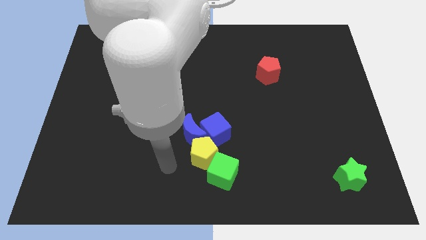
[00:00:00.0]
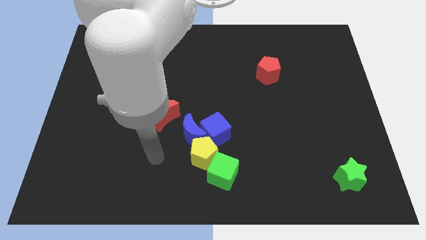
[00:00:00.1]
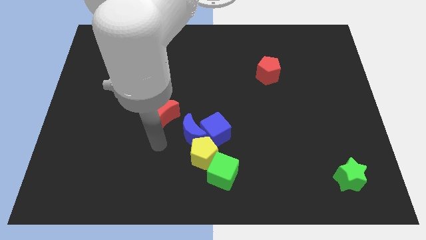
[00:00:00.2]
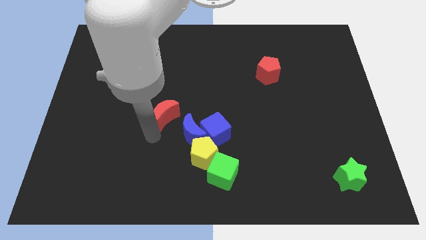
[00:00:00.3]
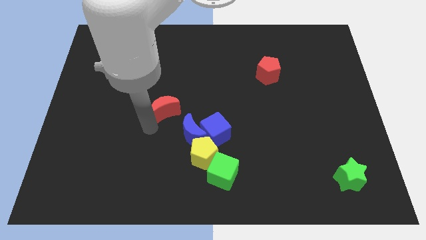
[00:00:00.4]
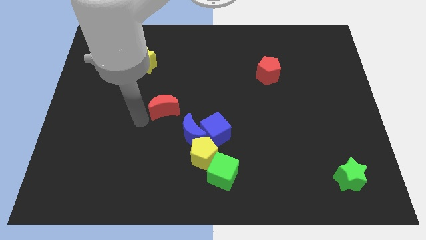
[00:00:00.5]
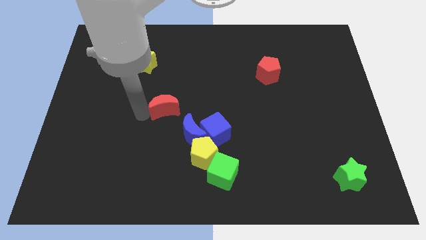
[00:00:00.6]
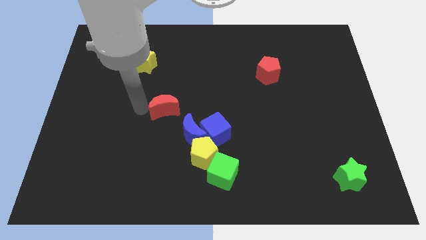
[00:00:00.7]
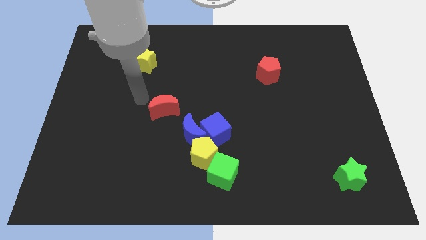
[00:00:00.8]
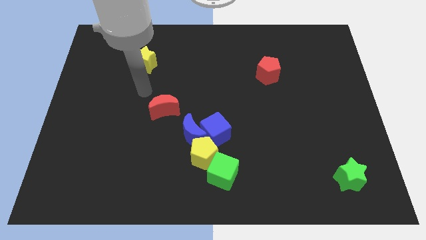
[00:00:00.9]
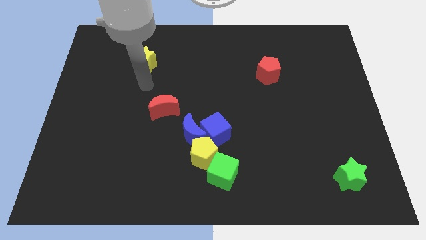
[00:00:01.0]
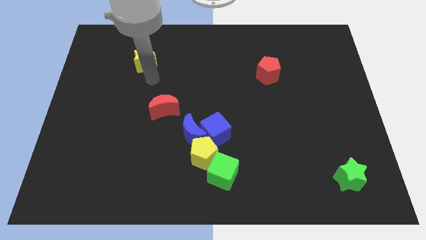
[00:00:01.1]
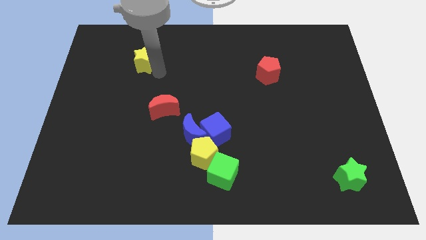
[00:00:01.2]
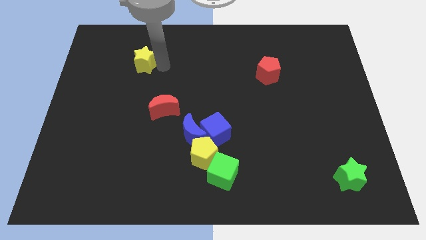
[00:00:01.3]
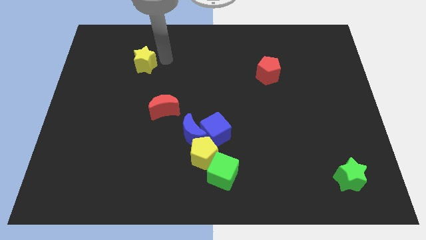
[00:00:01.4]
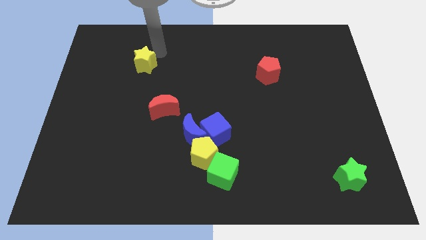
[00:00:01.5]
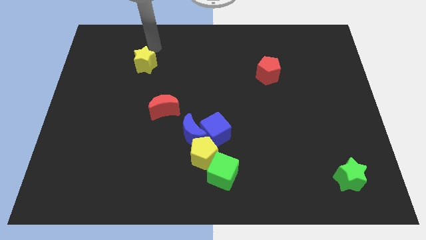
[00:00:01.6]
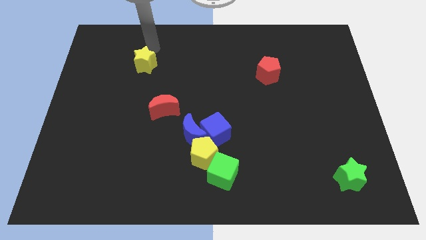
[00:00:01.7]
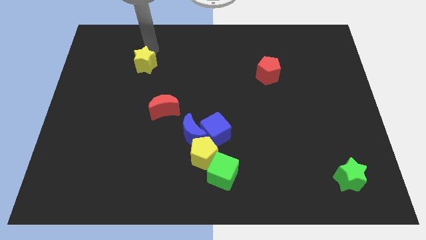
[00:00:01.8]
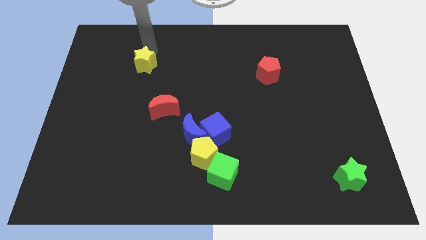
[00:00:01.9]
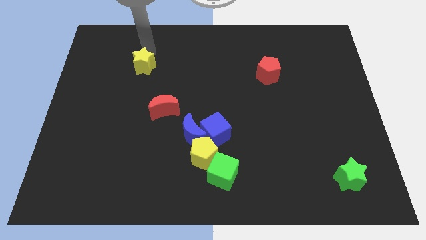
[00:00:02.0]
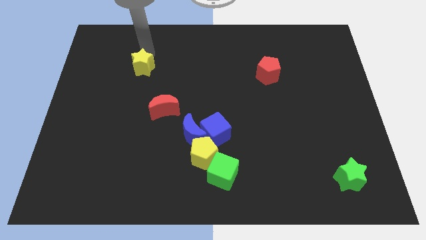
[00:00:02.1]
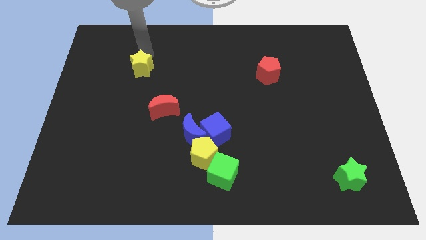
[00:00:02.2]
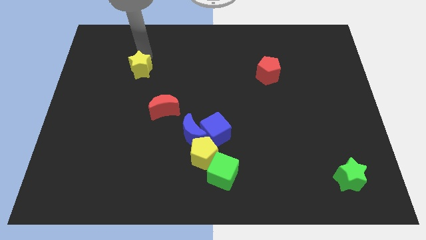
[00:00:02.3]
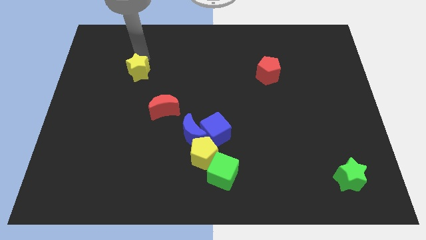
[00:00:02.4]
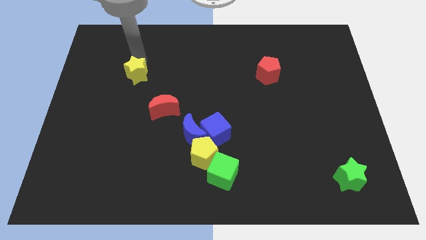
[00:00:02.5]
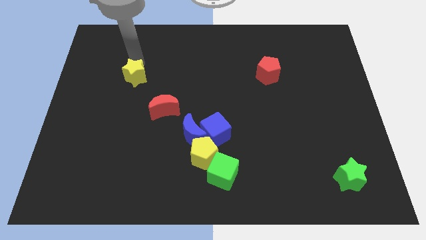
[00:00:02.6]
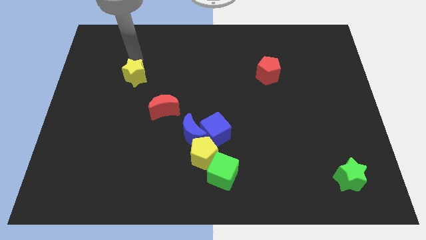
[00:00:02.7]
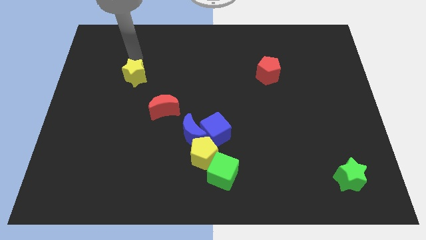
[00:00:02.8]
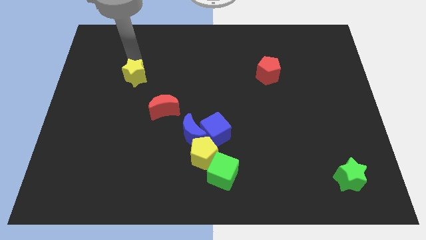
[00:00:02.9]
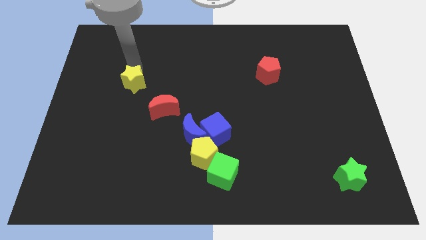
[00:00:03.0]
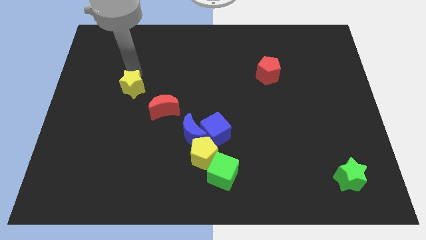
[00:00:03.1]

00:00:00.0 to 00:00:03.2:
slightly slide the yellow star downwards

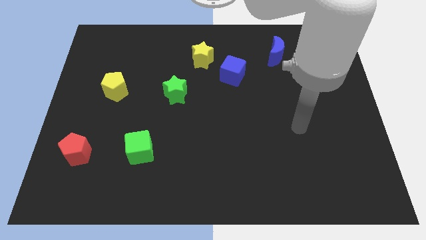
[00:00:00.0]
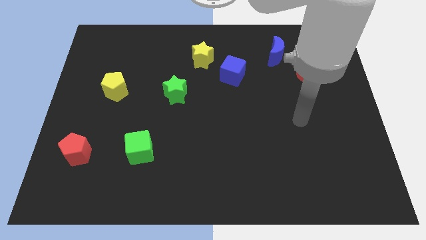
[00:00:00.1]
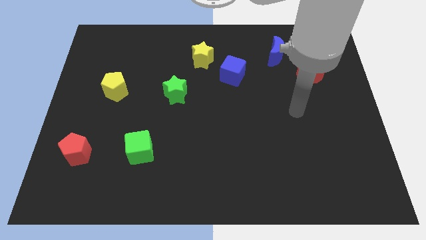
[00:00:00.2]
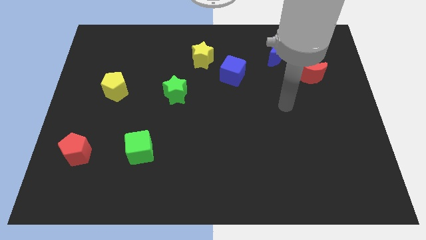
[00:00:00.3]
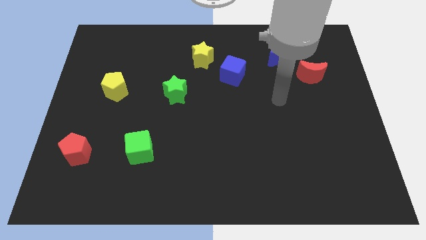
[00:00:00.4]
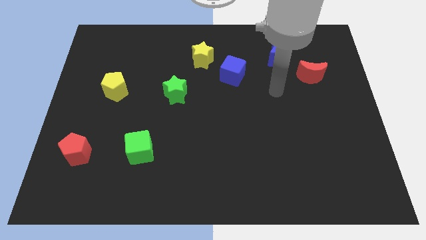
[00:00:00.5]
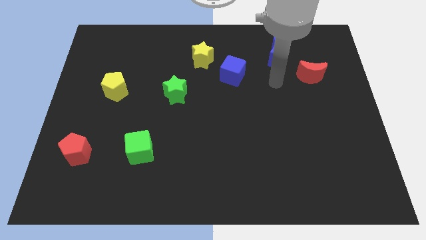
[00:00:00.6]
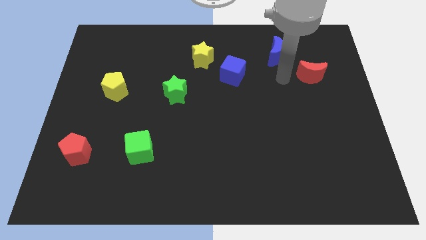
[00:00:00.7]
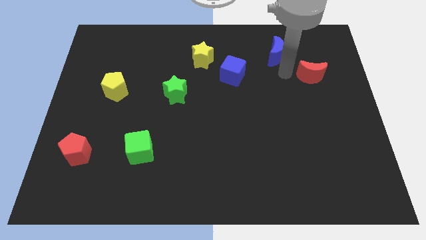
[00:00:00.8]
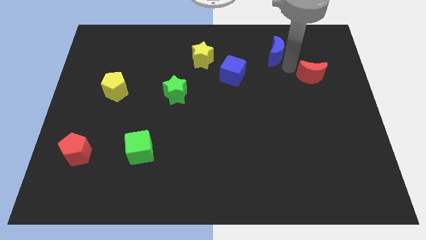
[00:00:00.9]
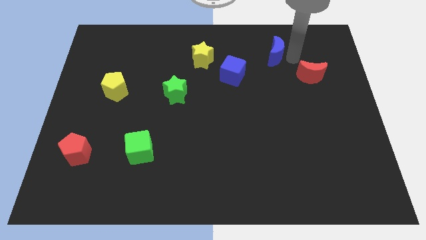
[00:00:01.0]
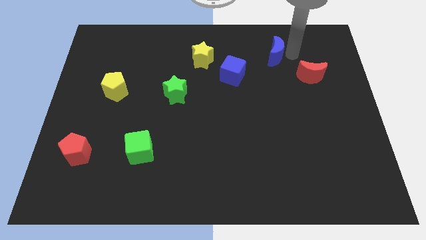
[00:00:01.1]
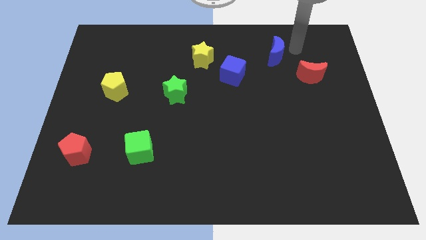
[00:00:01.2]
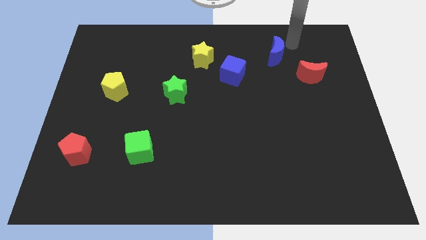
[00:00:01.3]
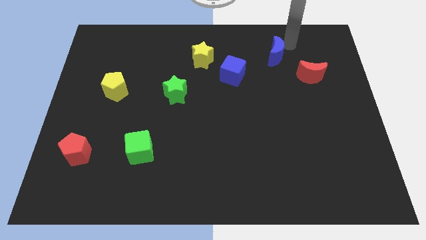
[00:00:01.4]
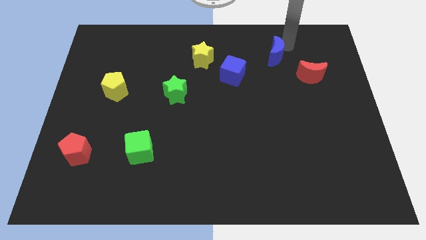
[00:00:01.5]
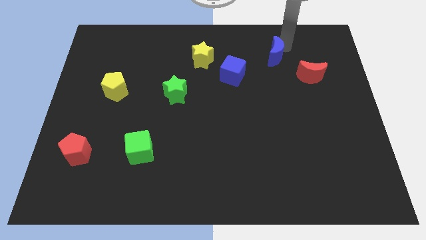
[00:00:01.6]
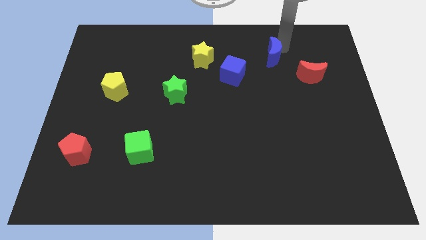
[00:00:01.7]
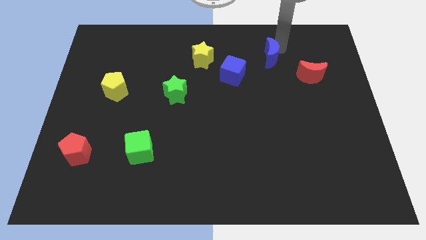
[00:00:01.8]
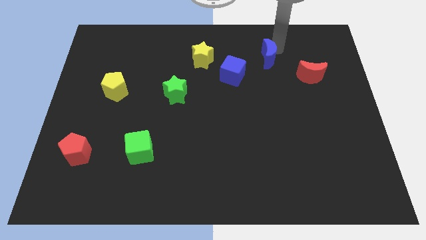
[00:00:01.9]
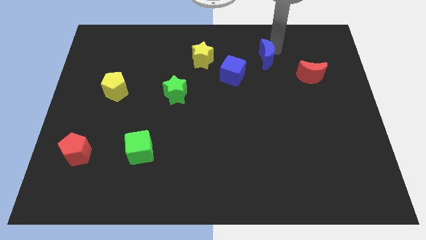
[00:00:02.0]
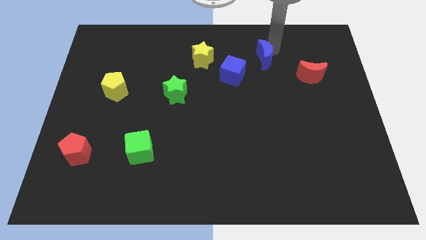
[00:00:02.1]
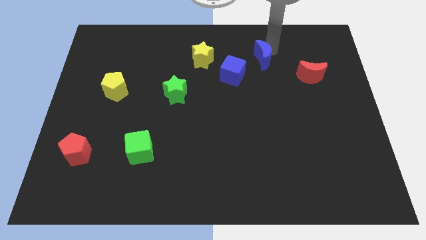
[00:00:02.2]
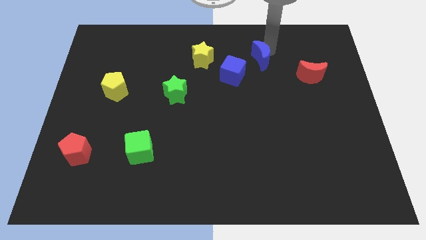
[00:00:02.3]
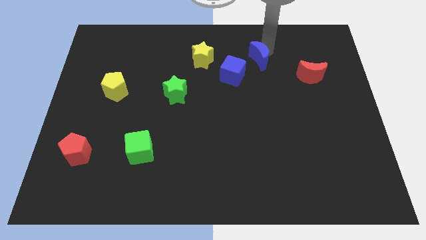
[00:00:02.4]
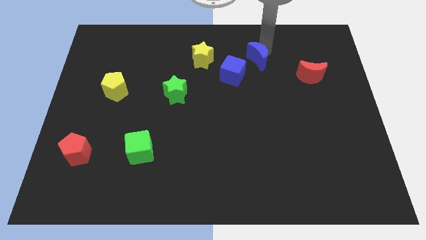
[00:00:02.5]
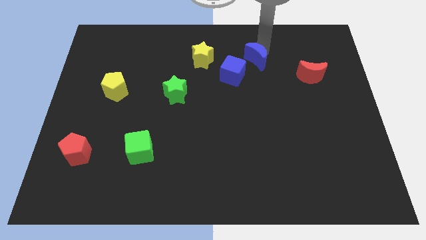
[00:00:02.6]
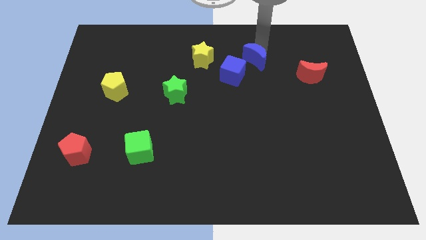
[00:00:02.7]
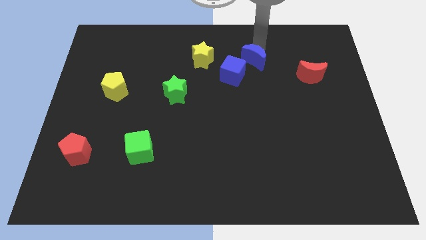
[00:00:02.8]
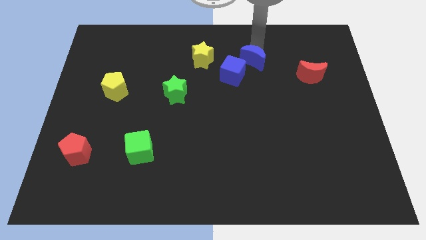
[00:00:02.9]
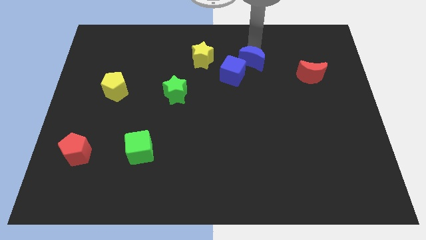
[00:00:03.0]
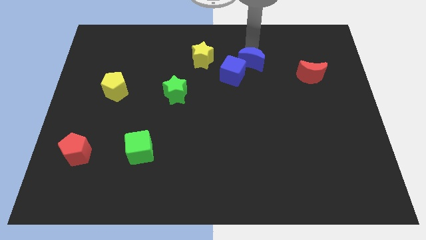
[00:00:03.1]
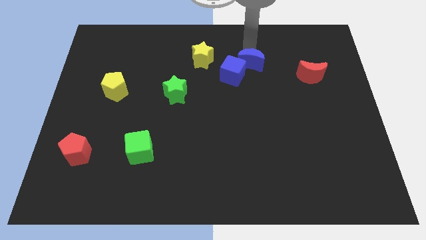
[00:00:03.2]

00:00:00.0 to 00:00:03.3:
slightly push the blue moon downwards and then left

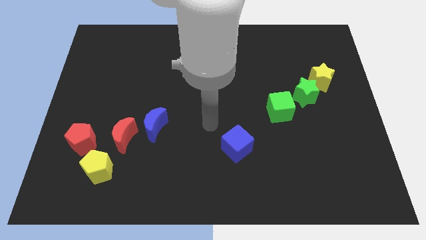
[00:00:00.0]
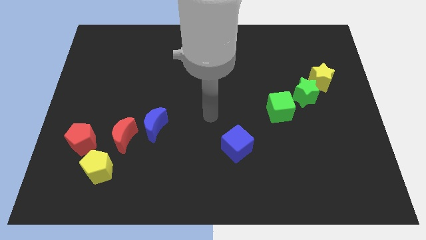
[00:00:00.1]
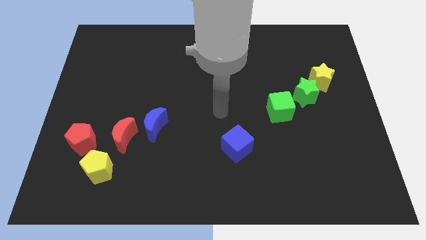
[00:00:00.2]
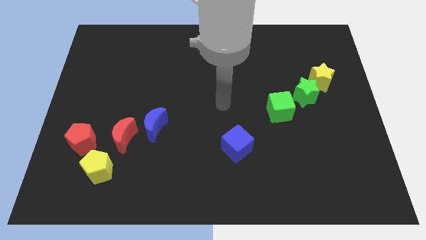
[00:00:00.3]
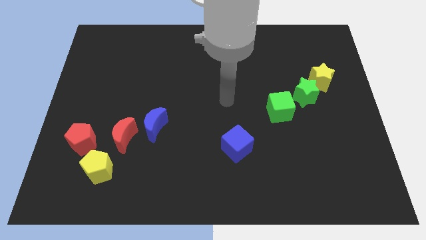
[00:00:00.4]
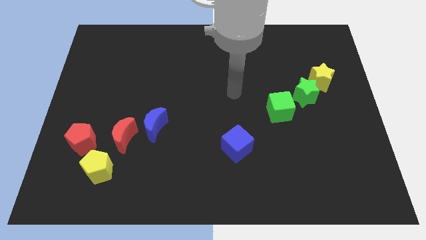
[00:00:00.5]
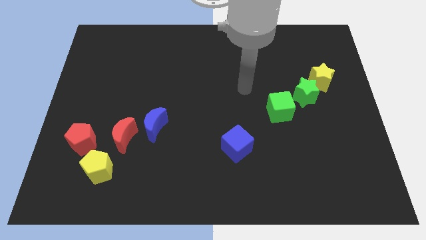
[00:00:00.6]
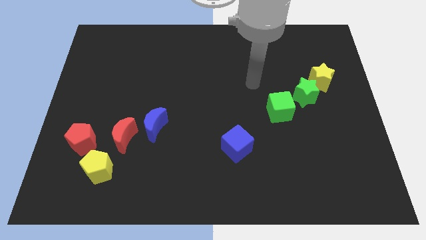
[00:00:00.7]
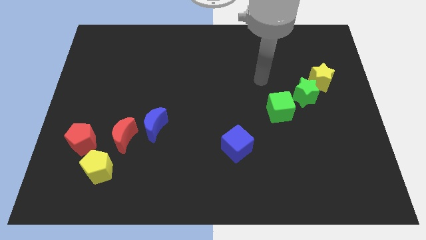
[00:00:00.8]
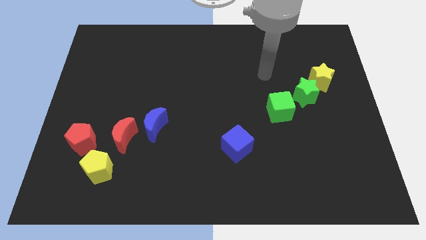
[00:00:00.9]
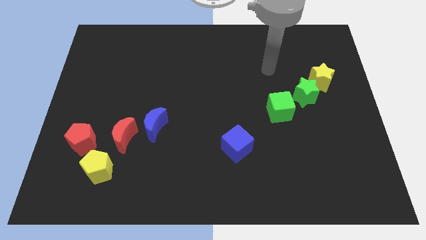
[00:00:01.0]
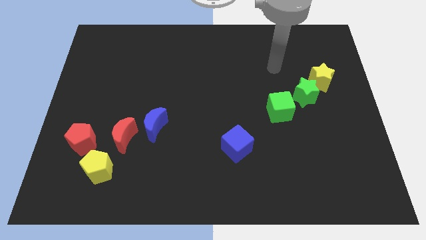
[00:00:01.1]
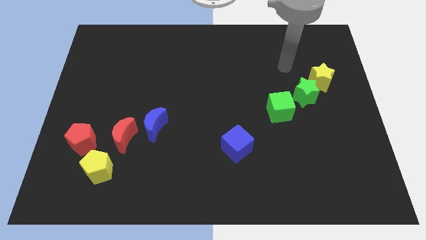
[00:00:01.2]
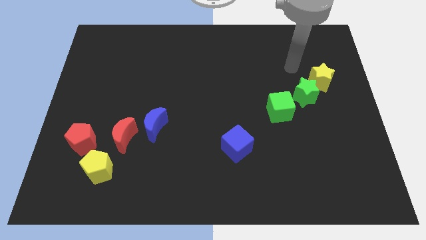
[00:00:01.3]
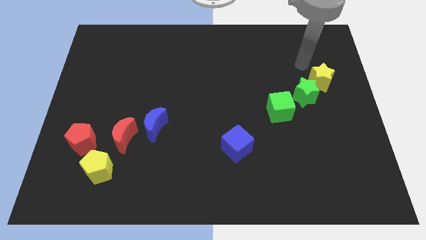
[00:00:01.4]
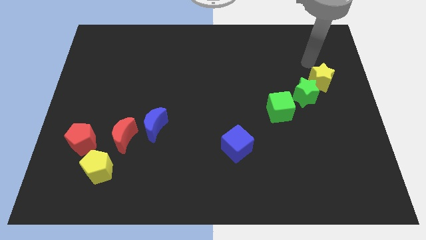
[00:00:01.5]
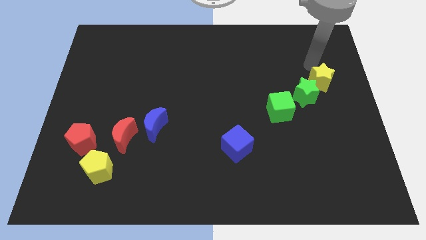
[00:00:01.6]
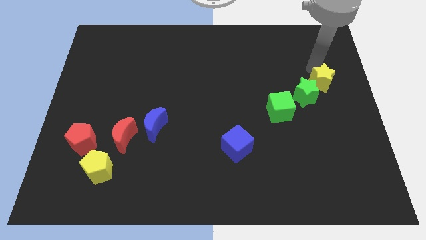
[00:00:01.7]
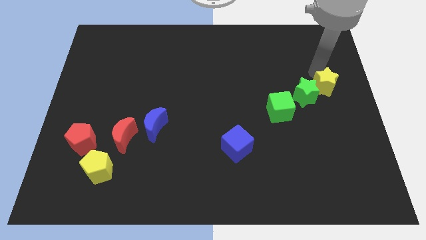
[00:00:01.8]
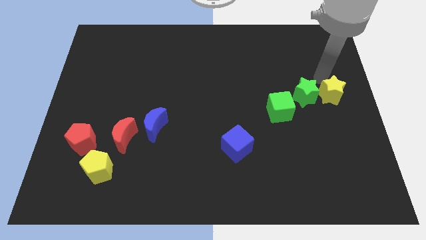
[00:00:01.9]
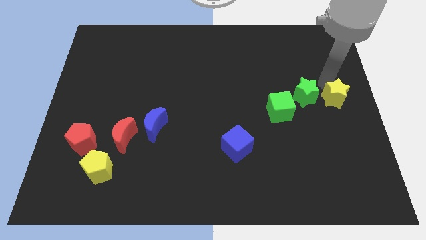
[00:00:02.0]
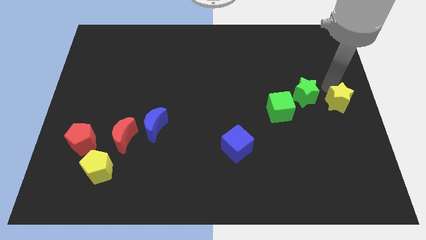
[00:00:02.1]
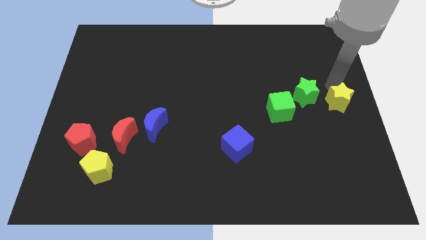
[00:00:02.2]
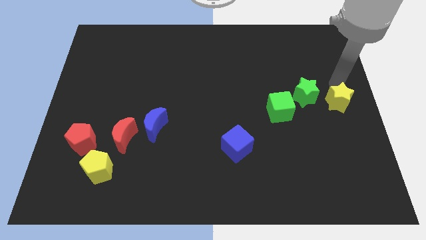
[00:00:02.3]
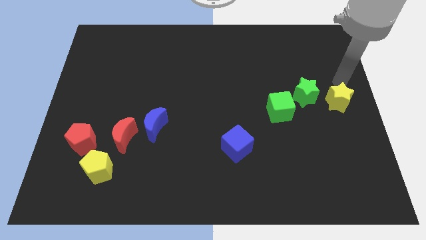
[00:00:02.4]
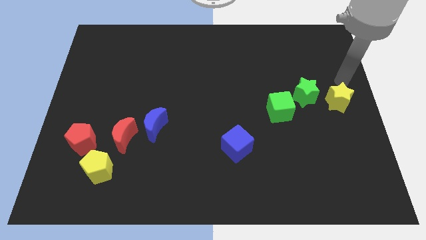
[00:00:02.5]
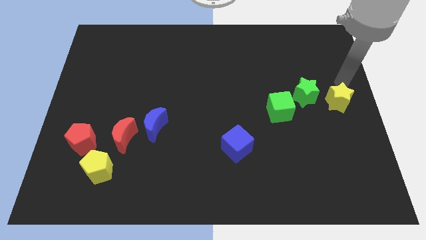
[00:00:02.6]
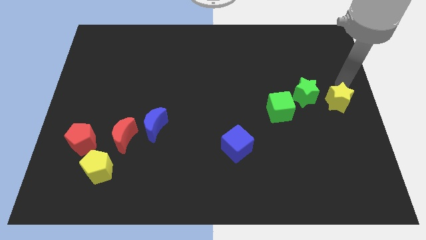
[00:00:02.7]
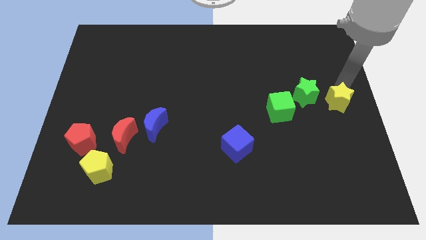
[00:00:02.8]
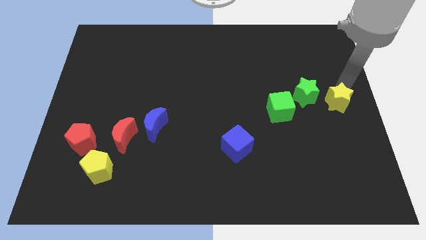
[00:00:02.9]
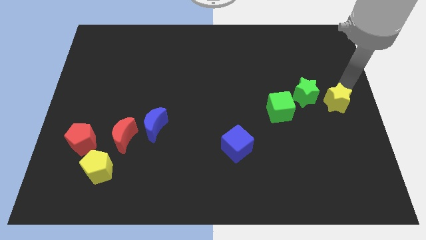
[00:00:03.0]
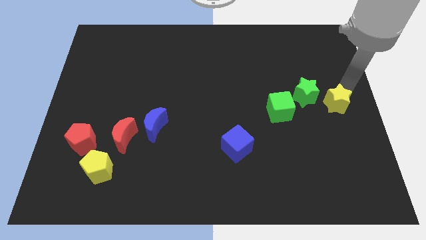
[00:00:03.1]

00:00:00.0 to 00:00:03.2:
push the yellow star down a little
